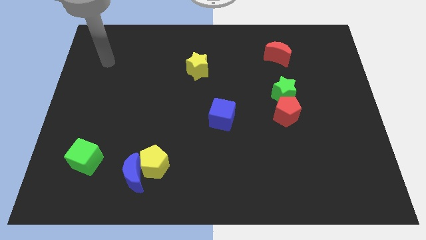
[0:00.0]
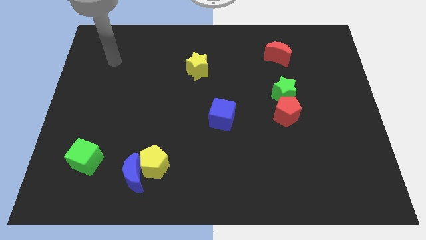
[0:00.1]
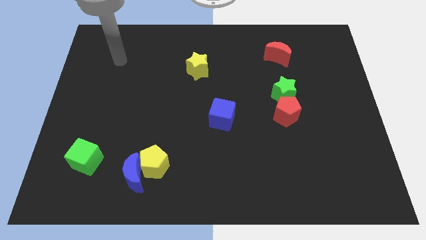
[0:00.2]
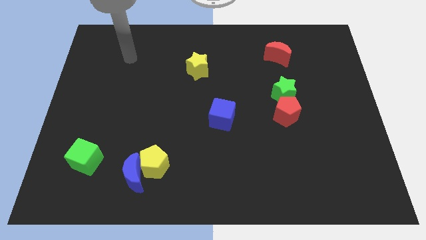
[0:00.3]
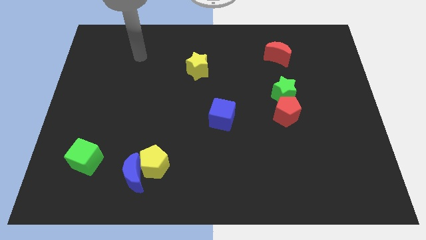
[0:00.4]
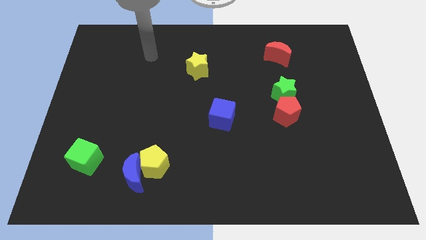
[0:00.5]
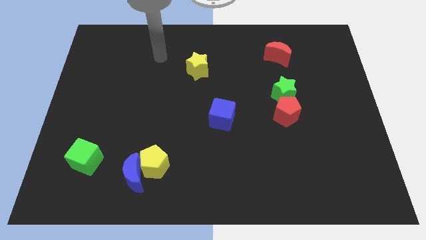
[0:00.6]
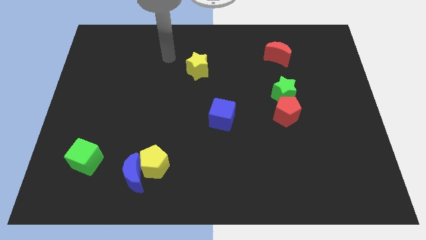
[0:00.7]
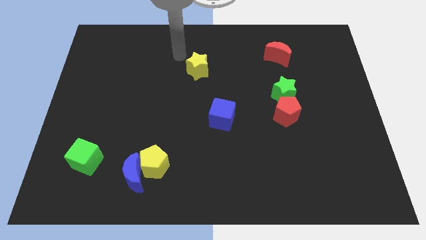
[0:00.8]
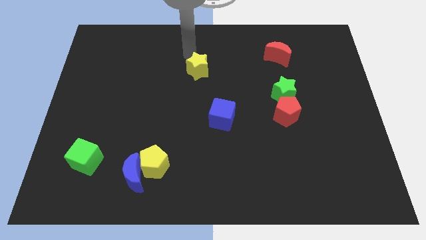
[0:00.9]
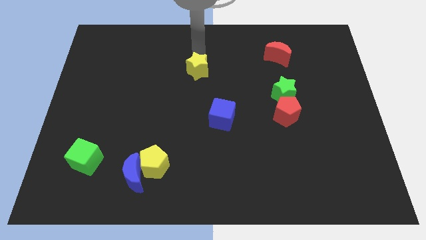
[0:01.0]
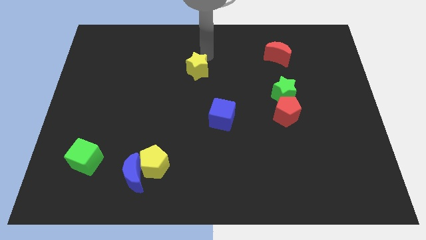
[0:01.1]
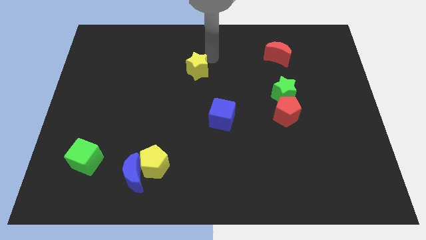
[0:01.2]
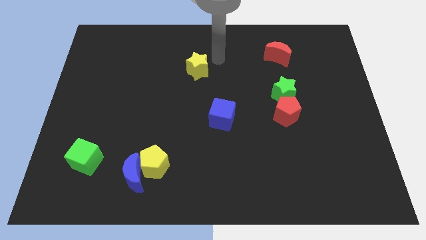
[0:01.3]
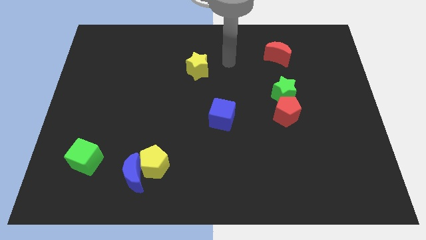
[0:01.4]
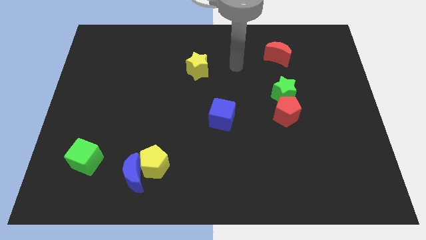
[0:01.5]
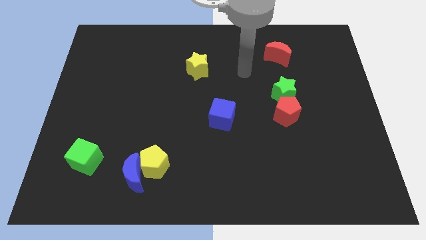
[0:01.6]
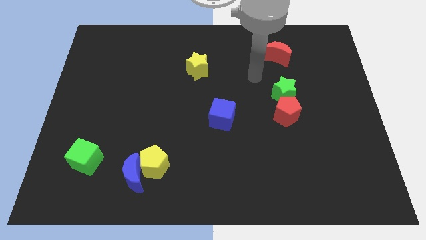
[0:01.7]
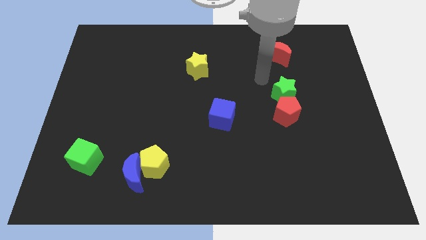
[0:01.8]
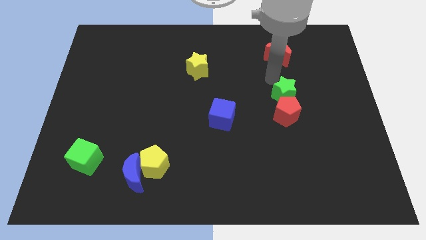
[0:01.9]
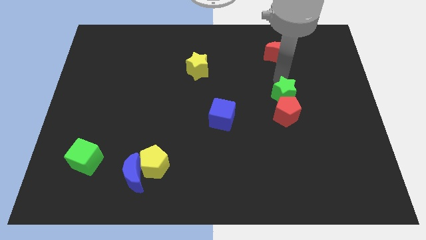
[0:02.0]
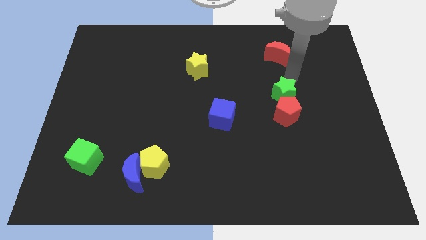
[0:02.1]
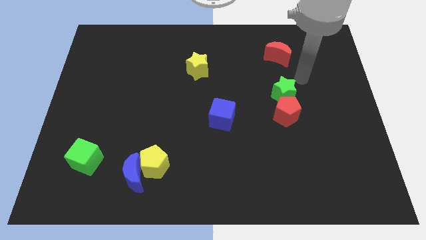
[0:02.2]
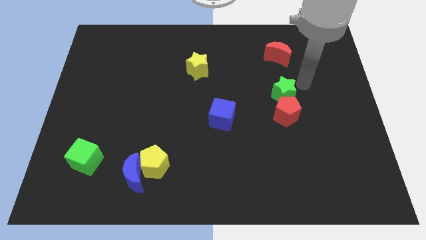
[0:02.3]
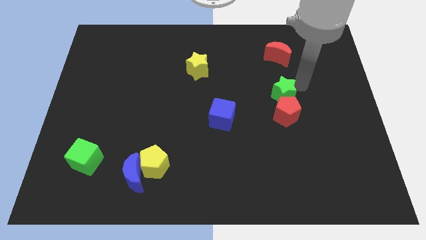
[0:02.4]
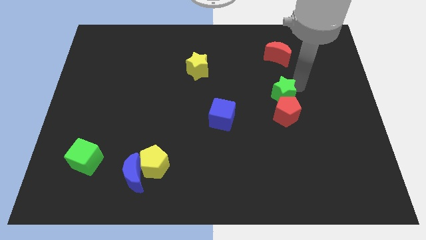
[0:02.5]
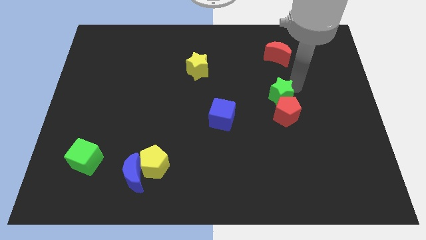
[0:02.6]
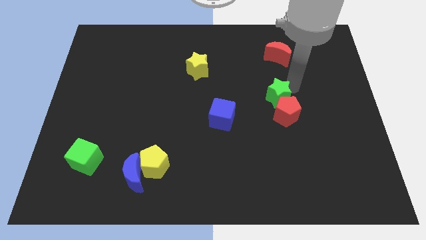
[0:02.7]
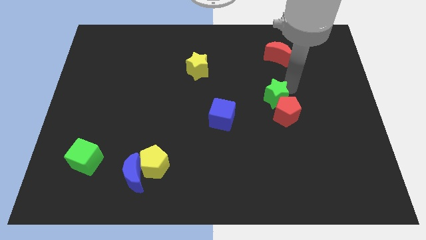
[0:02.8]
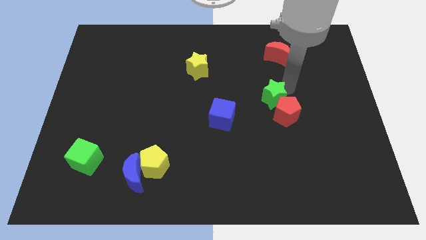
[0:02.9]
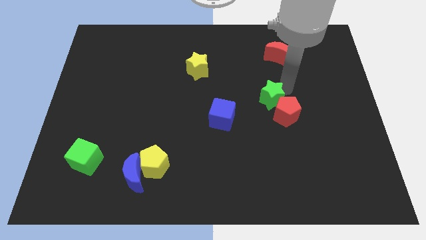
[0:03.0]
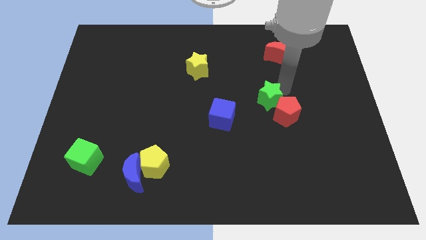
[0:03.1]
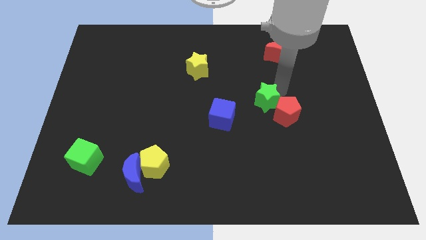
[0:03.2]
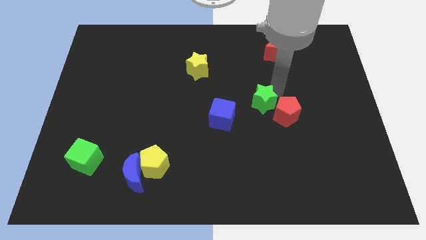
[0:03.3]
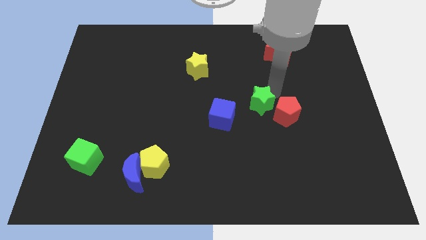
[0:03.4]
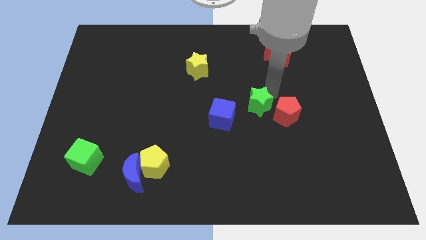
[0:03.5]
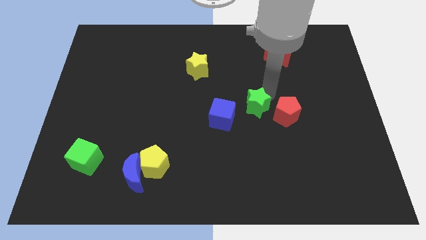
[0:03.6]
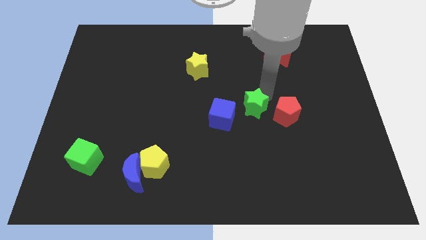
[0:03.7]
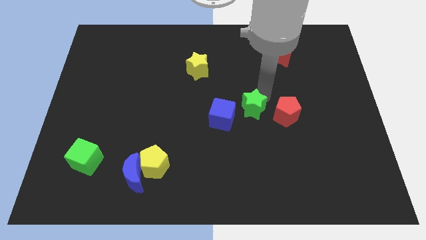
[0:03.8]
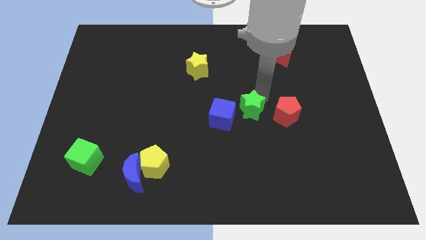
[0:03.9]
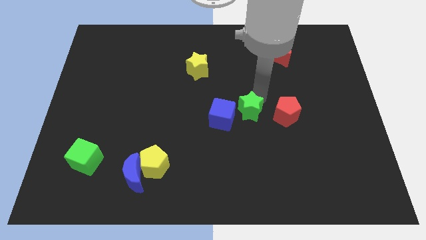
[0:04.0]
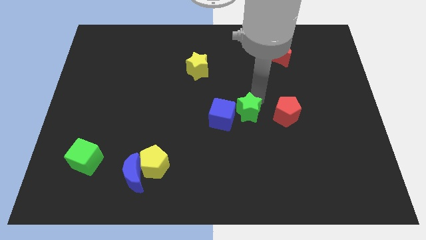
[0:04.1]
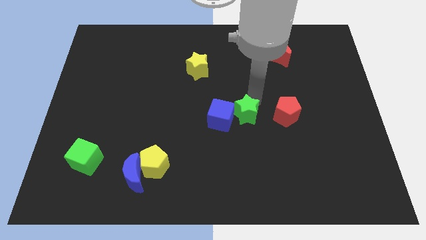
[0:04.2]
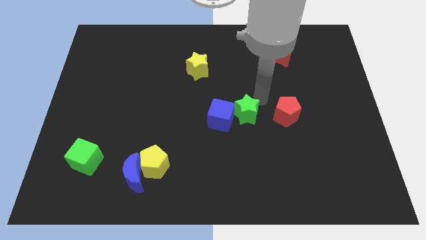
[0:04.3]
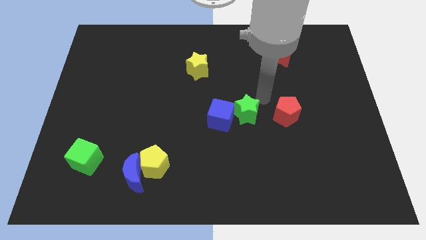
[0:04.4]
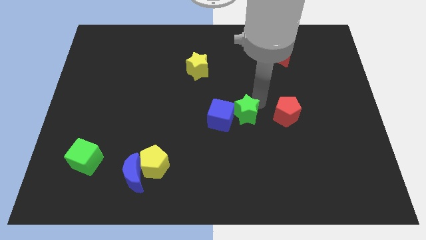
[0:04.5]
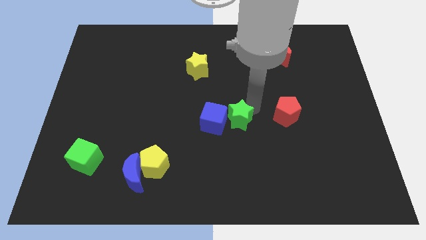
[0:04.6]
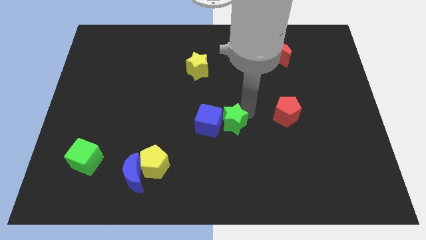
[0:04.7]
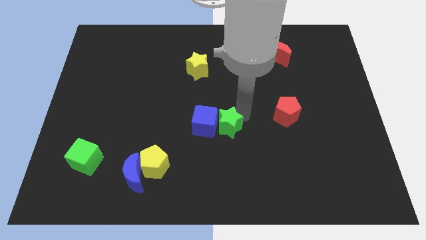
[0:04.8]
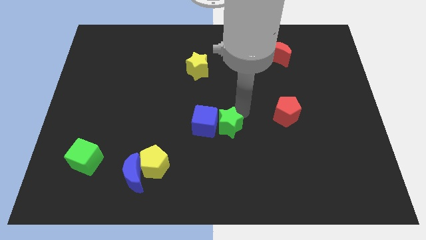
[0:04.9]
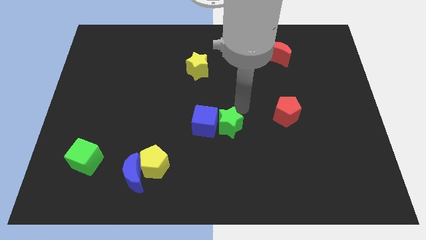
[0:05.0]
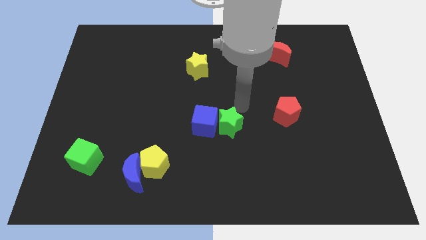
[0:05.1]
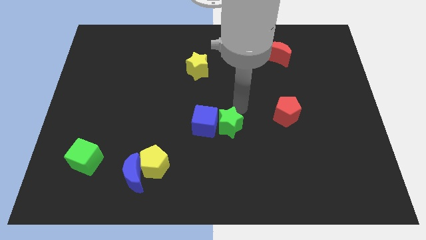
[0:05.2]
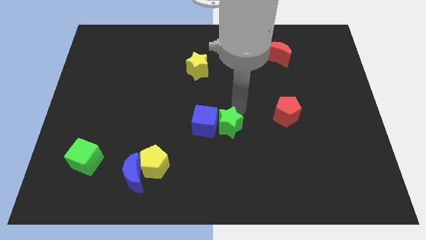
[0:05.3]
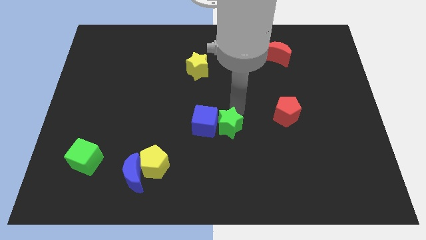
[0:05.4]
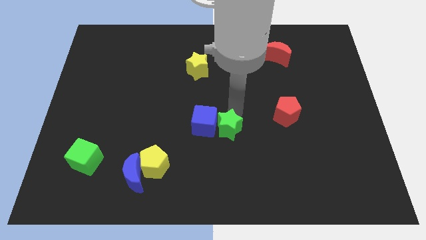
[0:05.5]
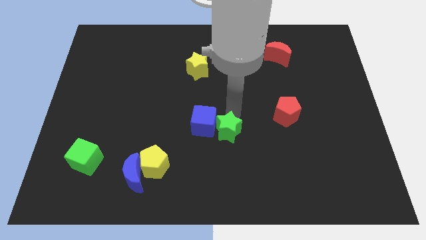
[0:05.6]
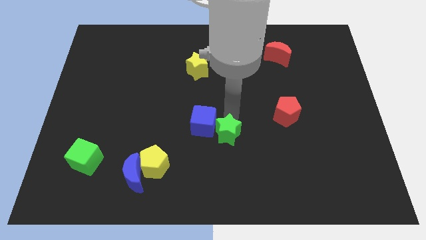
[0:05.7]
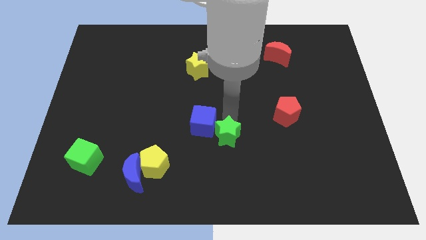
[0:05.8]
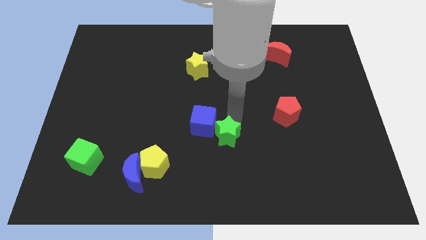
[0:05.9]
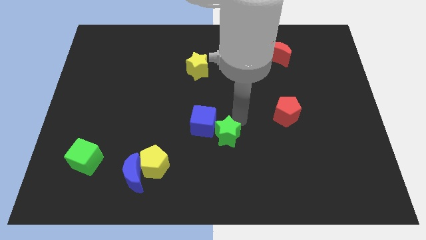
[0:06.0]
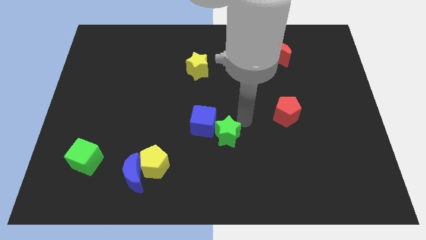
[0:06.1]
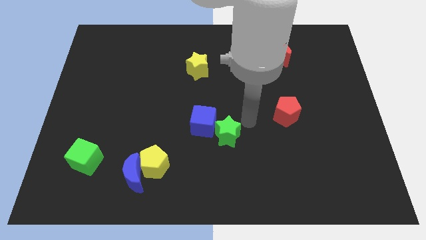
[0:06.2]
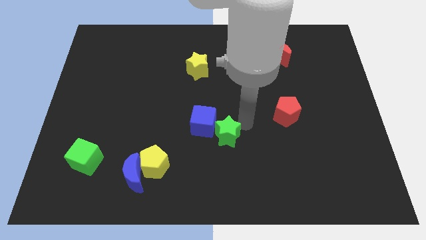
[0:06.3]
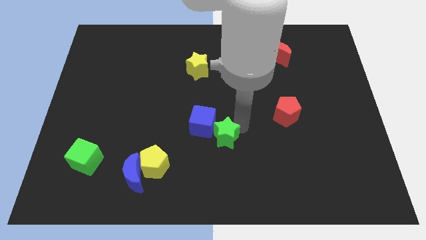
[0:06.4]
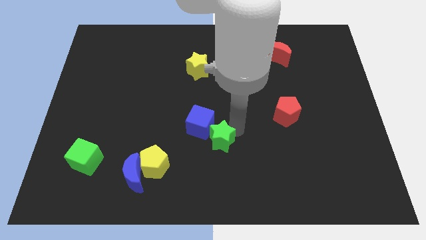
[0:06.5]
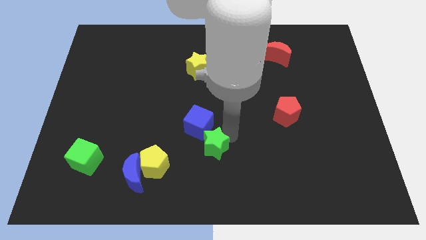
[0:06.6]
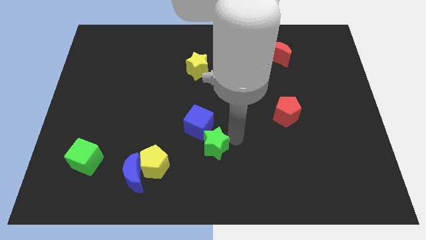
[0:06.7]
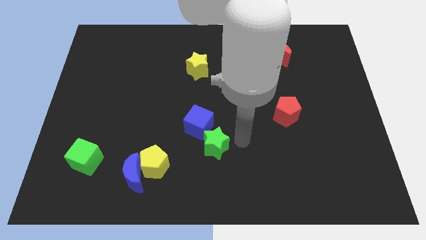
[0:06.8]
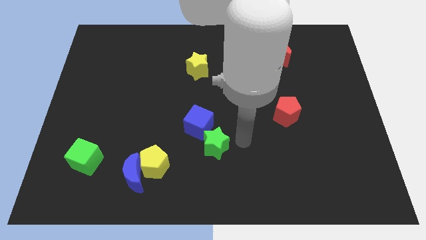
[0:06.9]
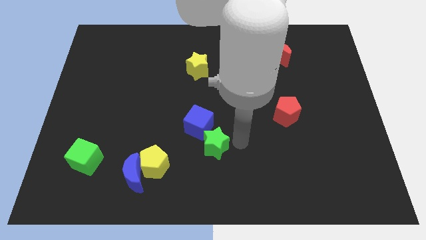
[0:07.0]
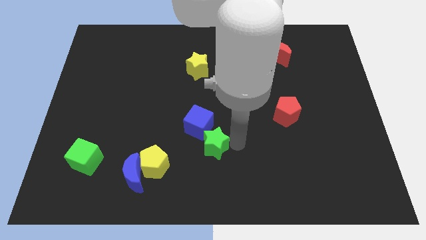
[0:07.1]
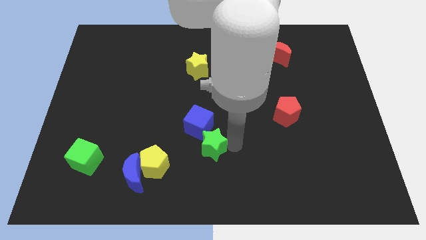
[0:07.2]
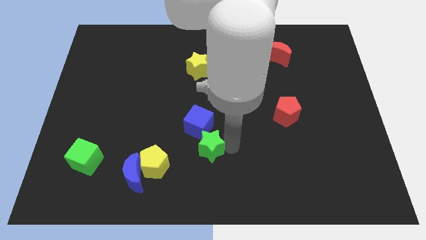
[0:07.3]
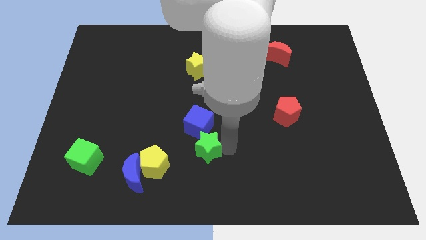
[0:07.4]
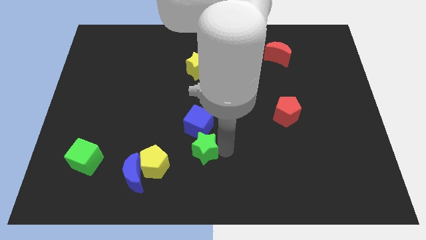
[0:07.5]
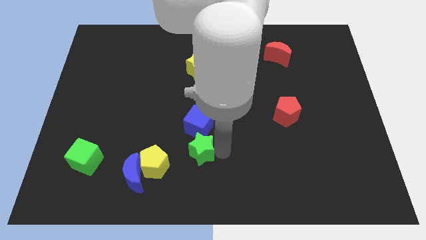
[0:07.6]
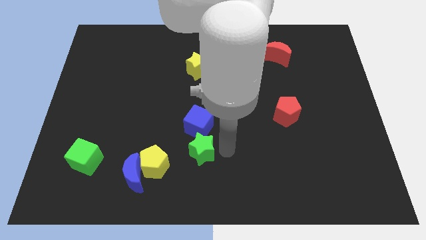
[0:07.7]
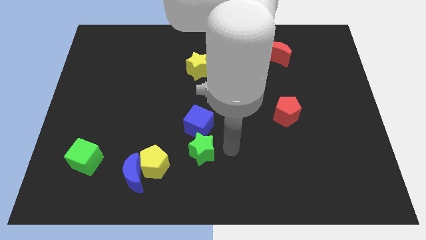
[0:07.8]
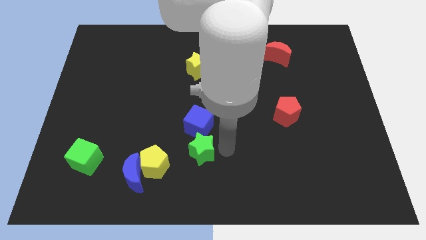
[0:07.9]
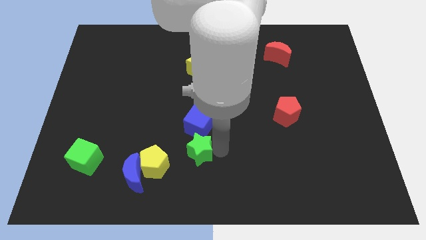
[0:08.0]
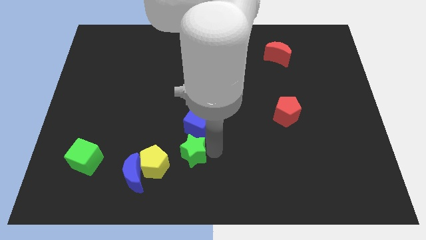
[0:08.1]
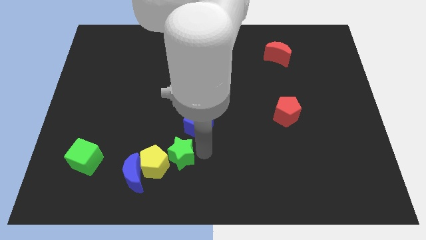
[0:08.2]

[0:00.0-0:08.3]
slide the green star towards the yellow pentagon
